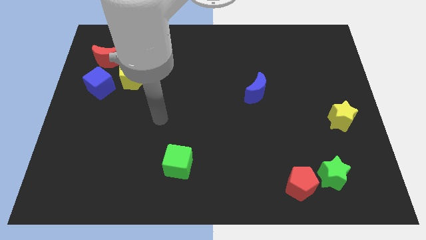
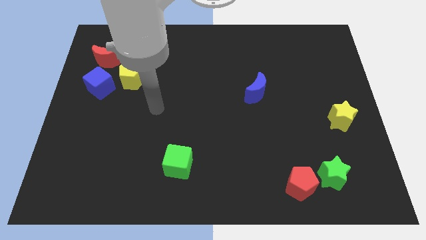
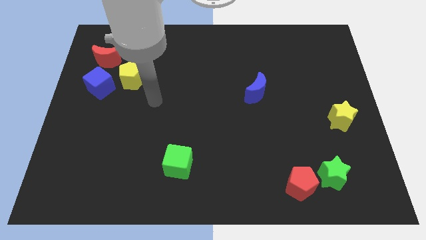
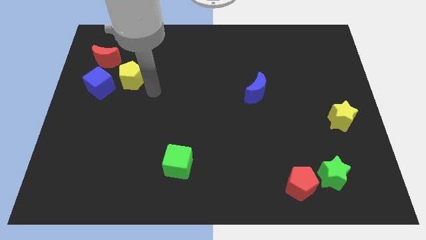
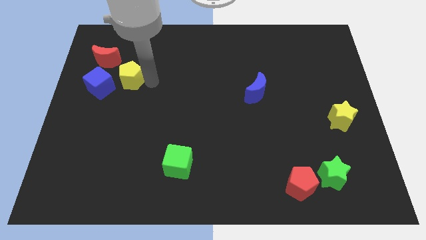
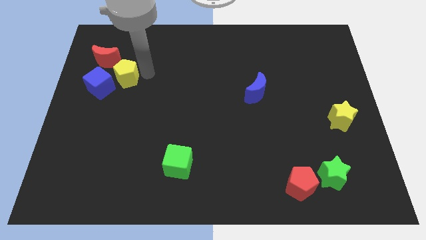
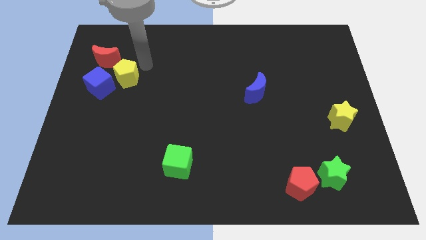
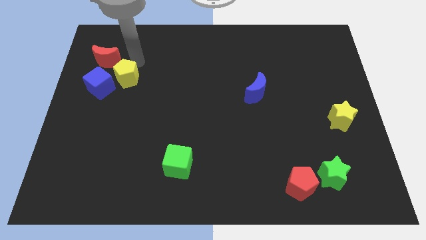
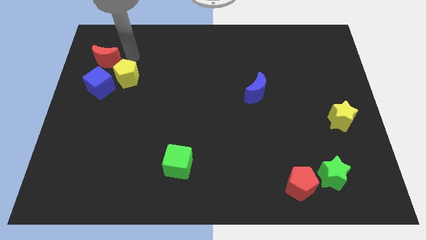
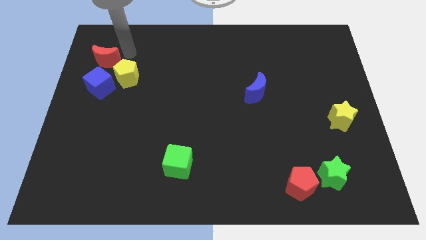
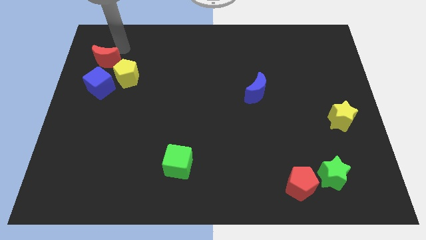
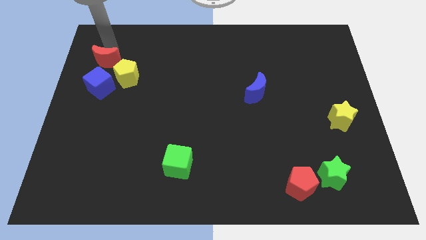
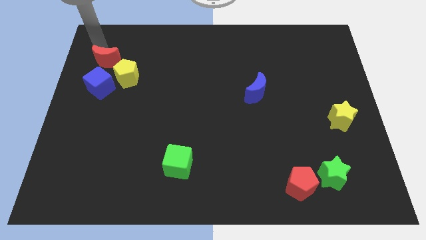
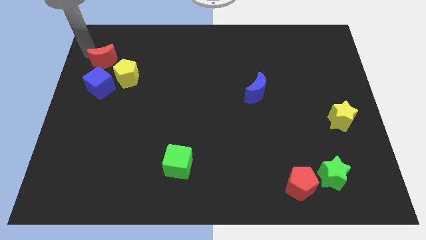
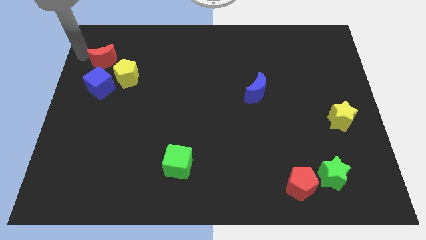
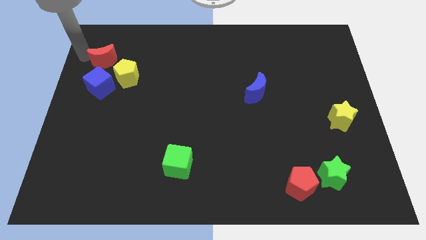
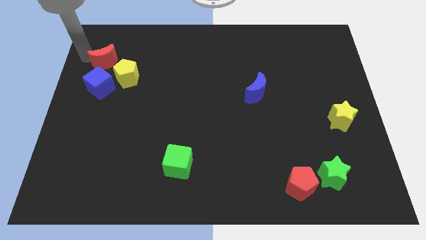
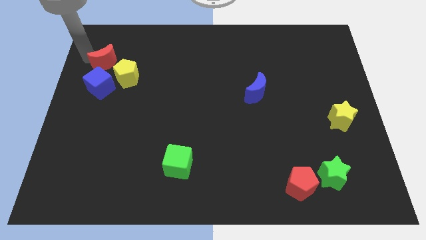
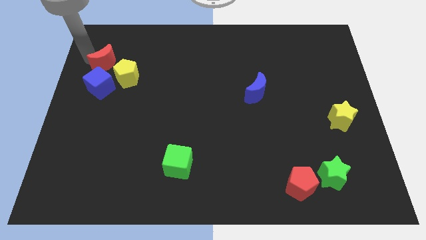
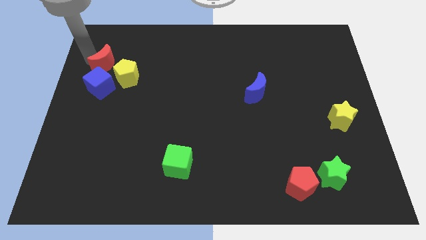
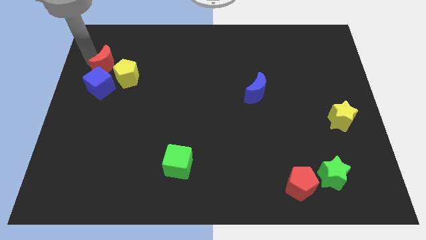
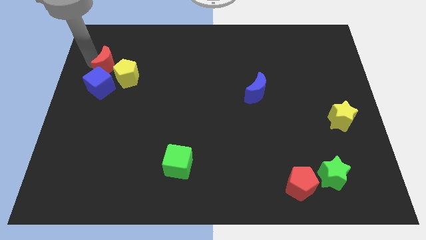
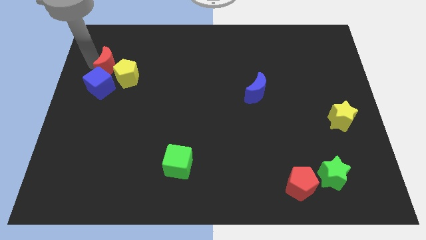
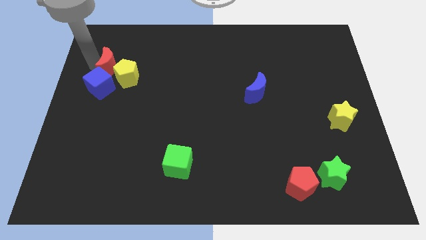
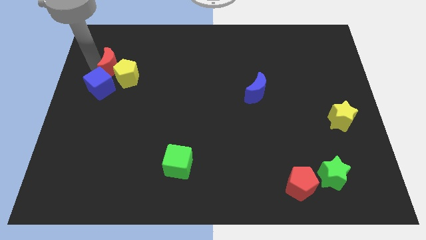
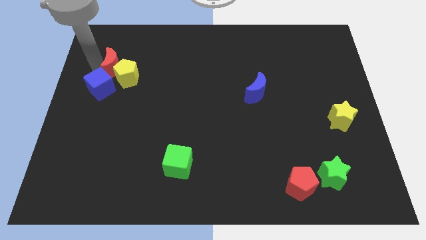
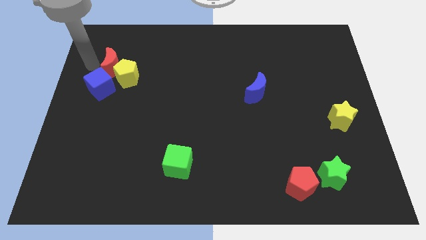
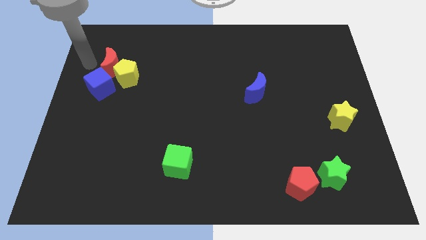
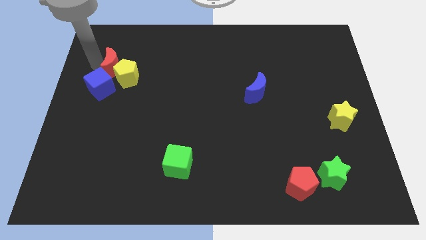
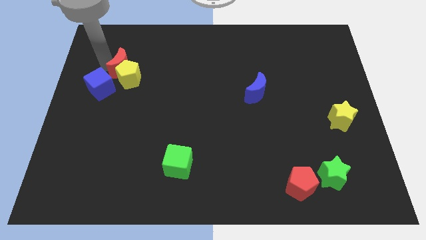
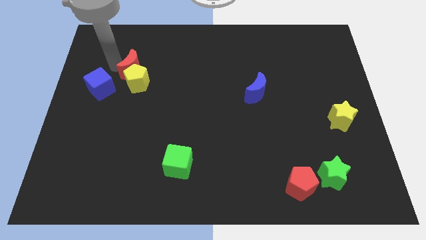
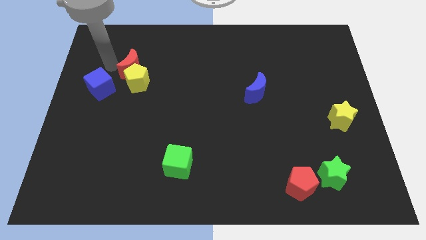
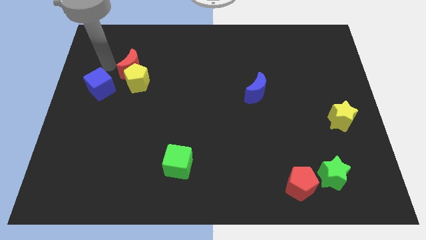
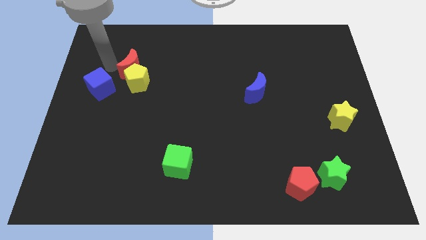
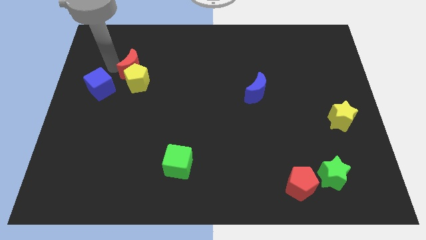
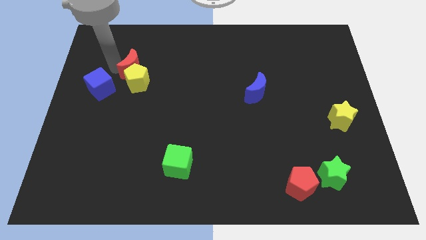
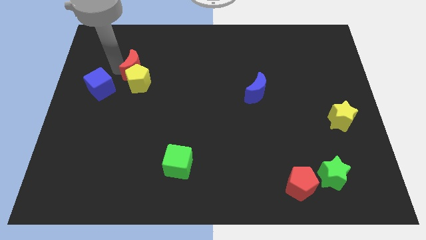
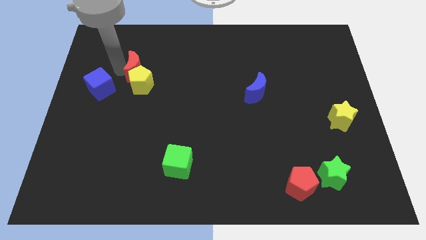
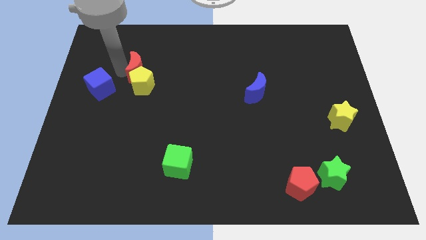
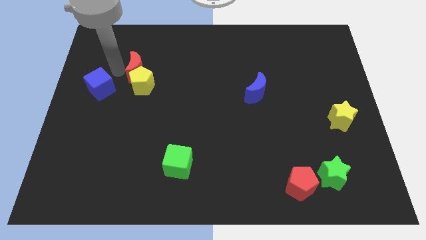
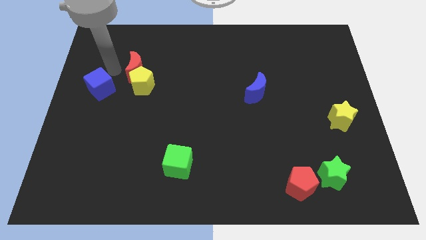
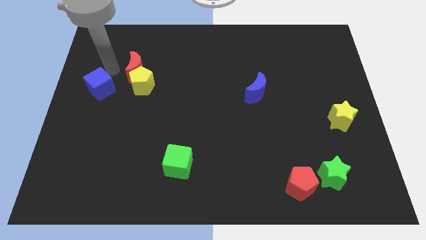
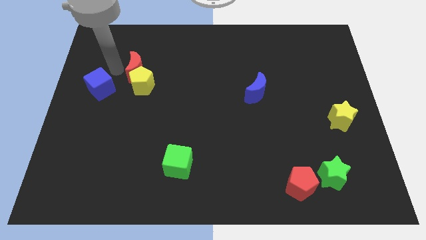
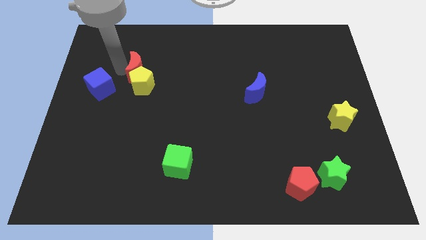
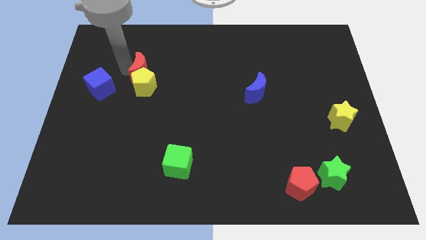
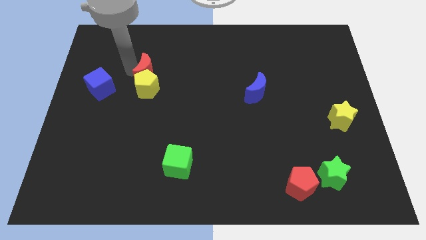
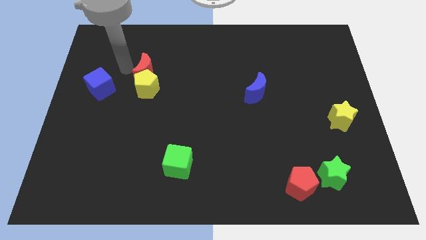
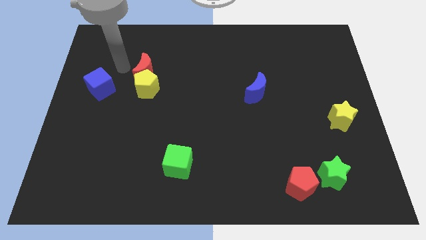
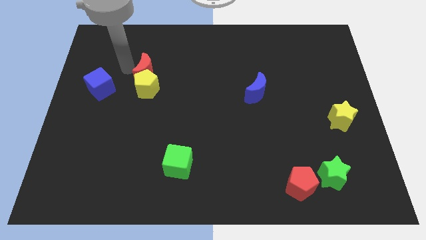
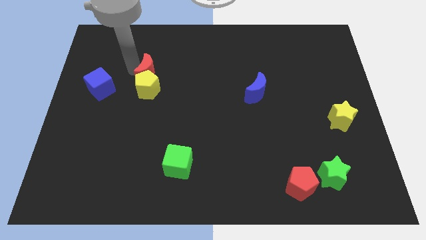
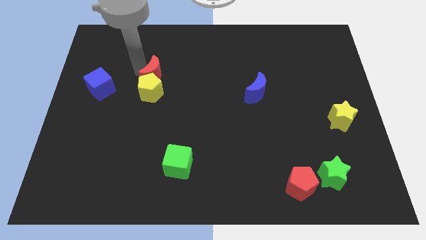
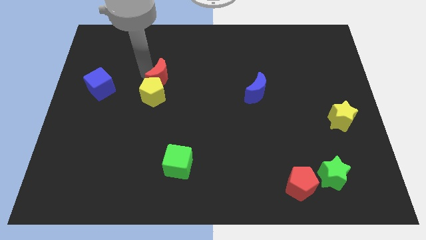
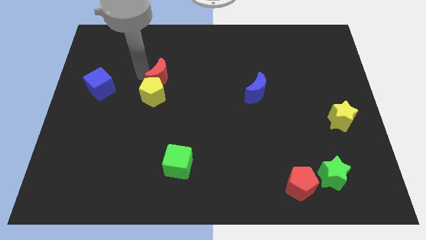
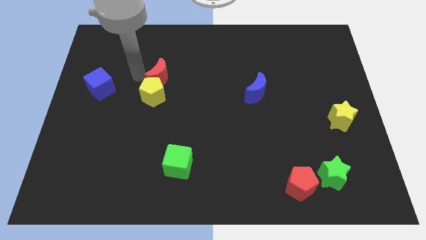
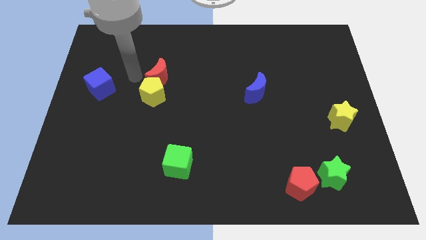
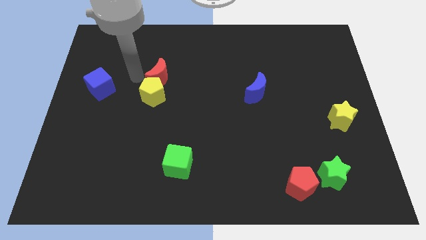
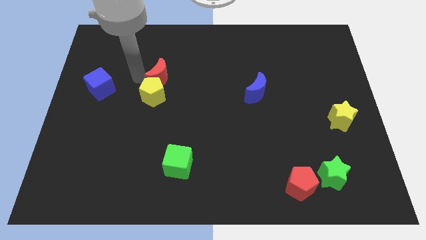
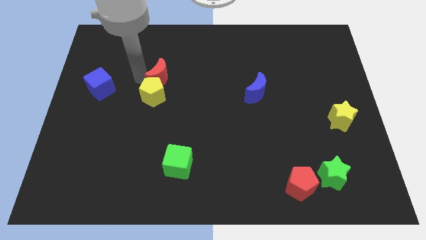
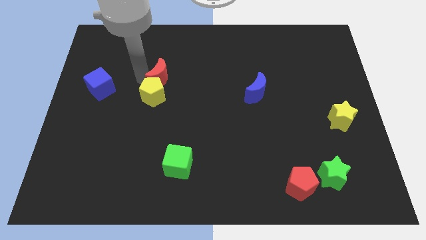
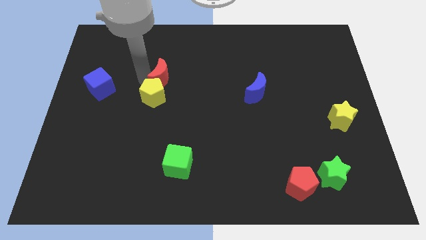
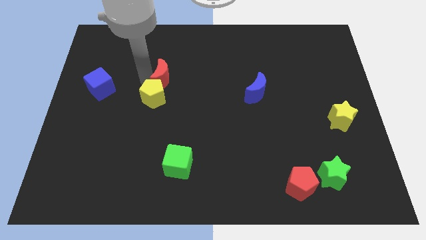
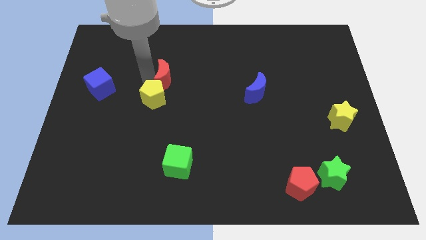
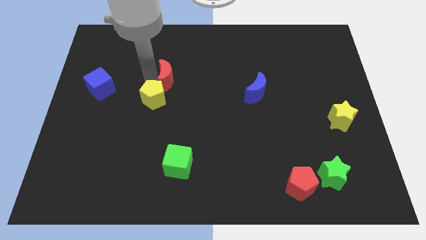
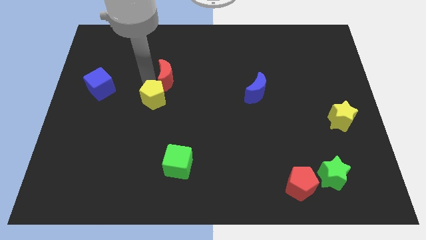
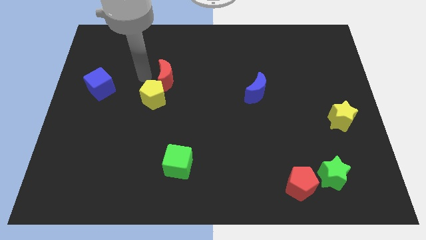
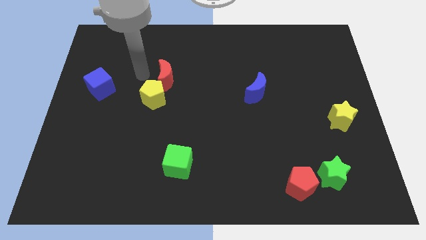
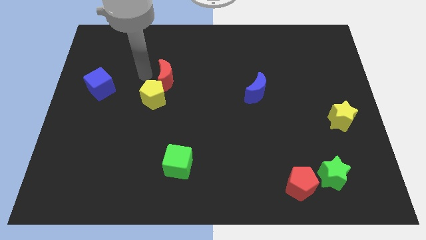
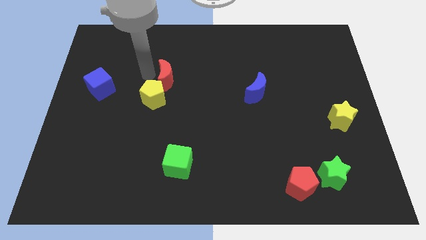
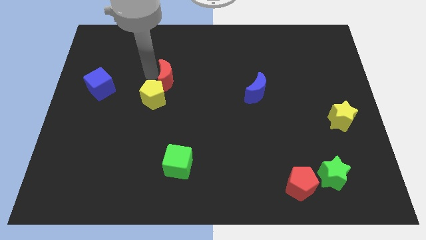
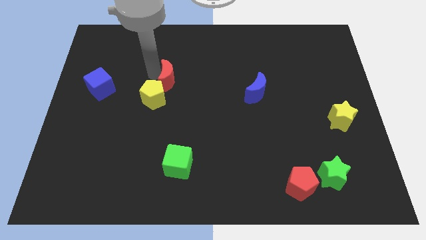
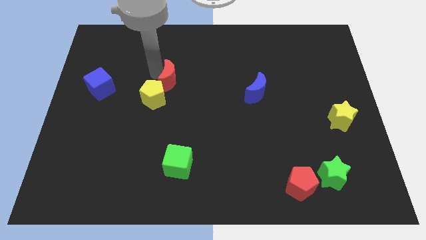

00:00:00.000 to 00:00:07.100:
push the red moon to the center

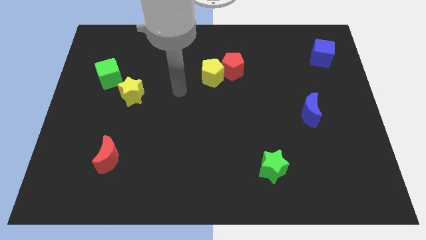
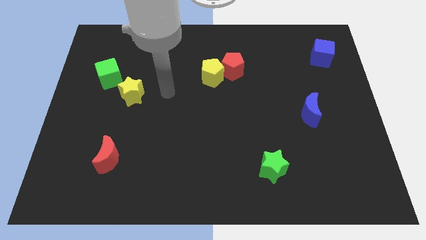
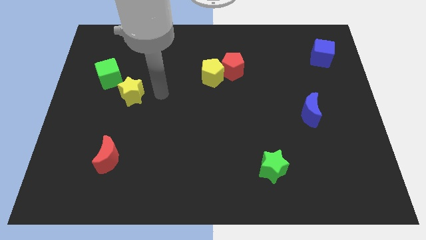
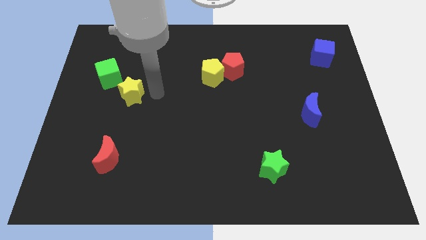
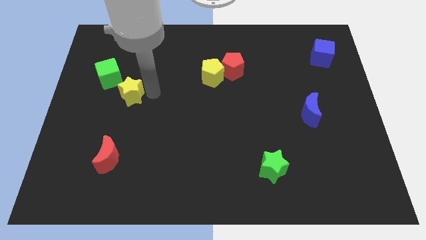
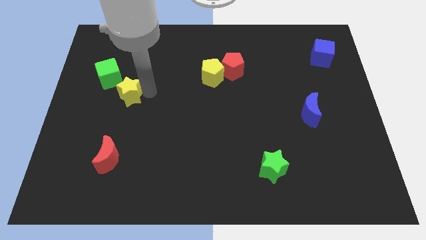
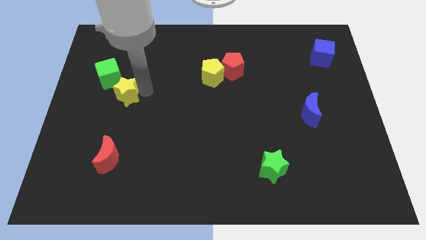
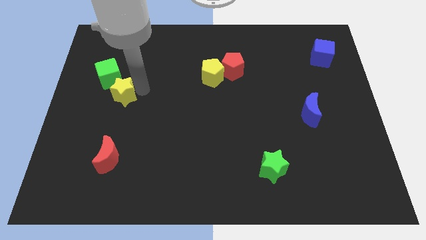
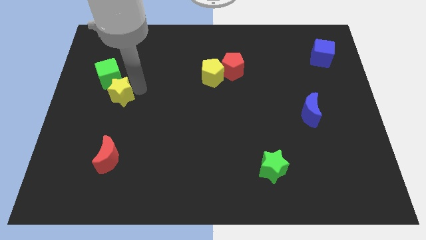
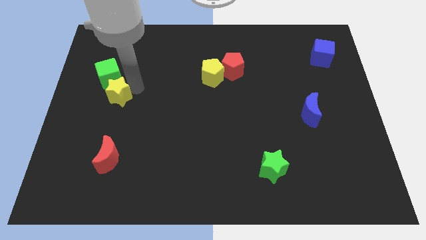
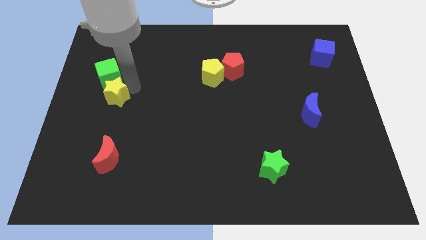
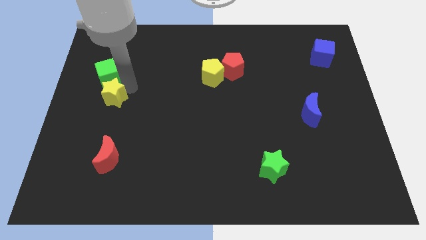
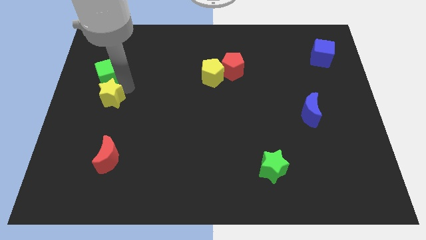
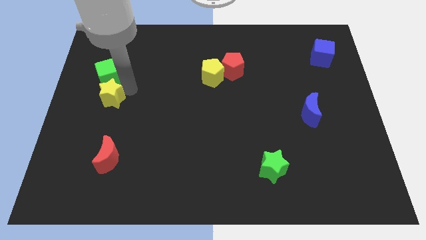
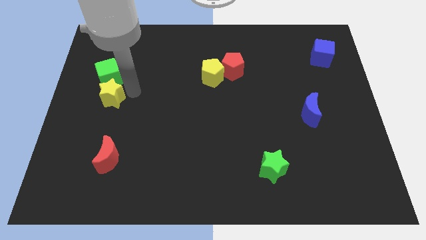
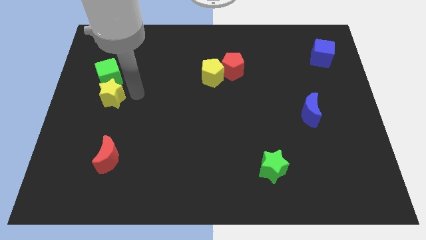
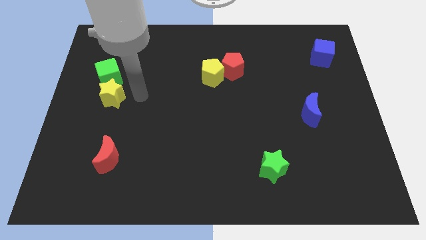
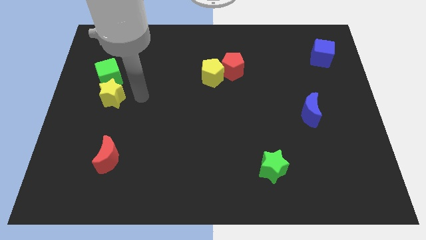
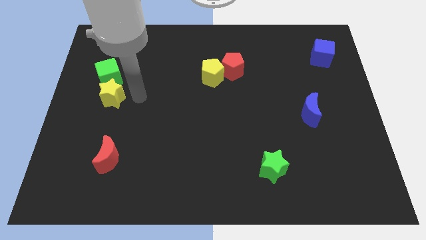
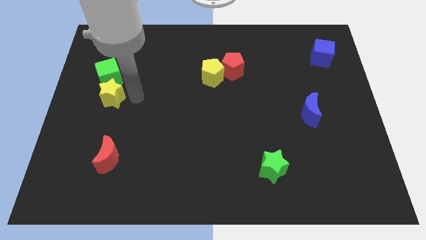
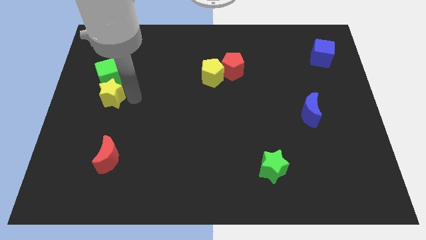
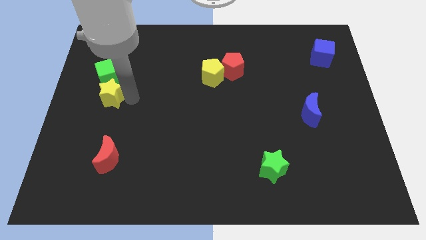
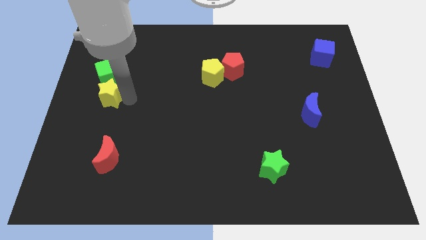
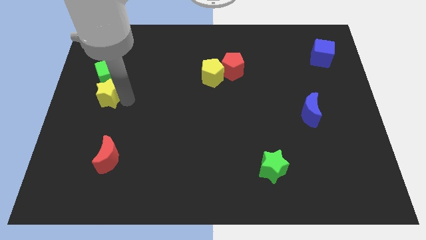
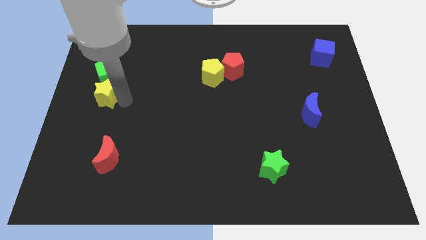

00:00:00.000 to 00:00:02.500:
move the yellow star to the left side
